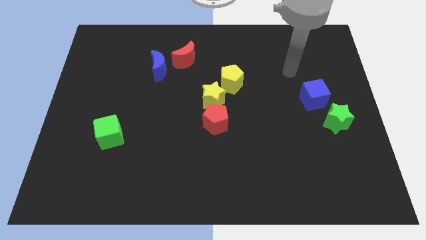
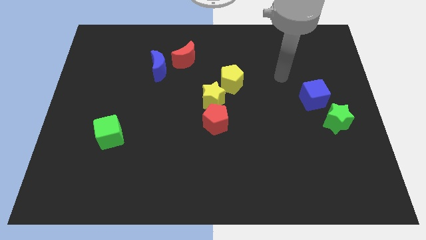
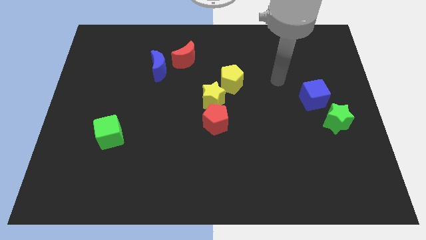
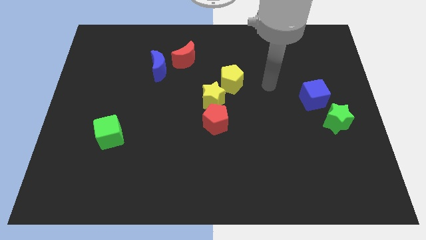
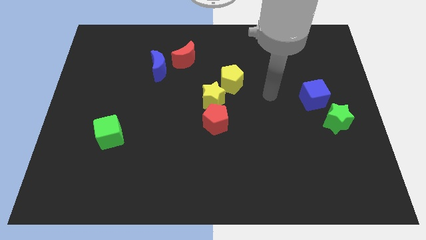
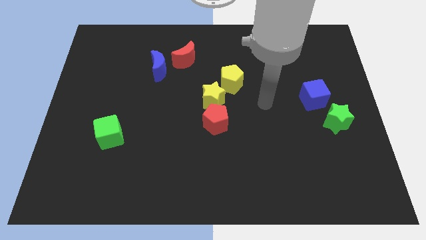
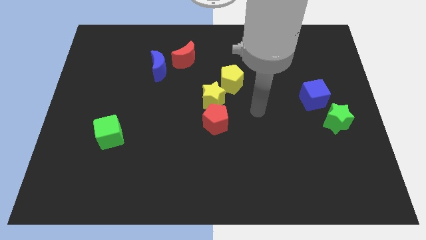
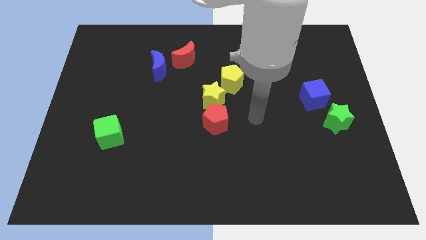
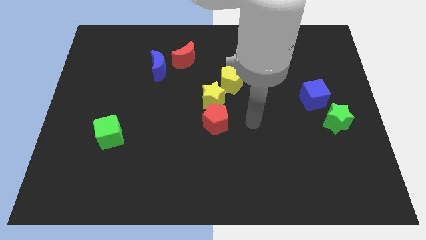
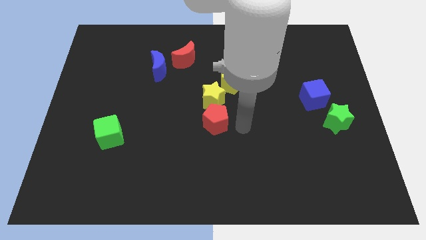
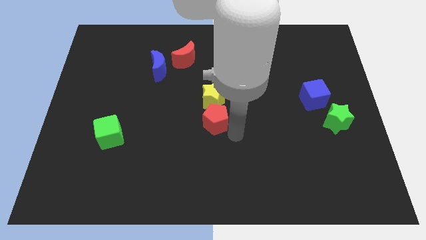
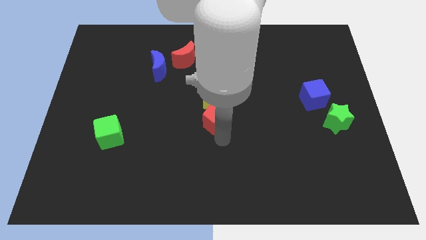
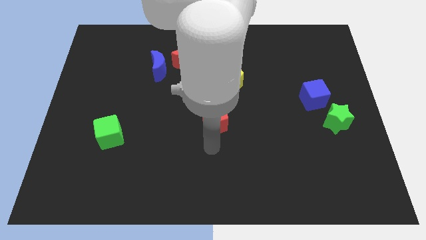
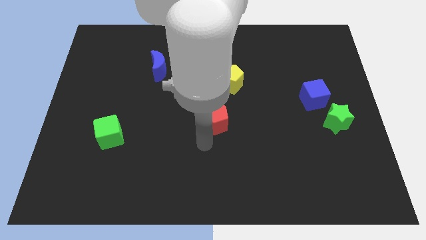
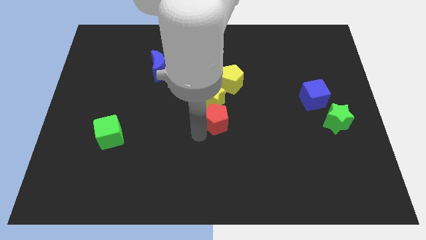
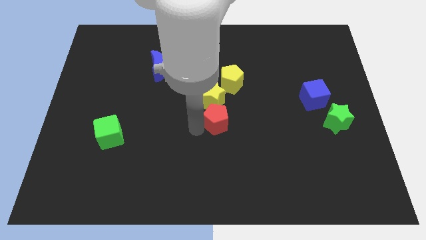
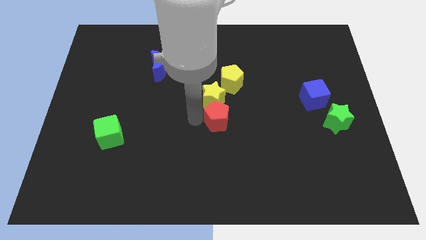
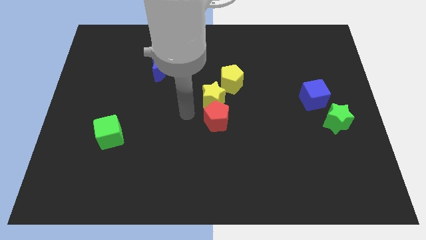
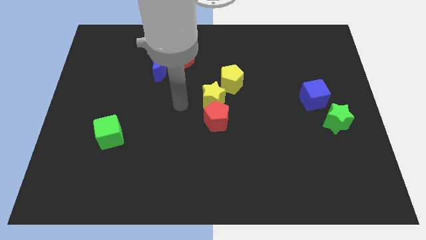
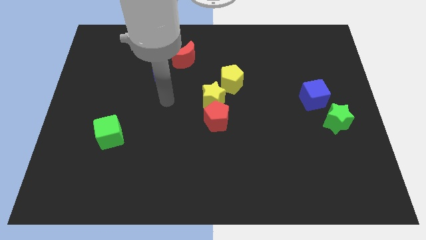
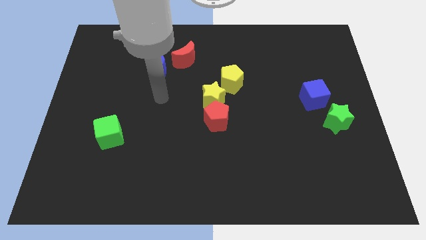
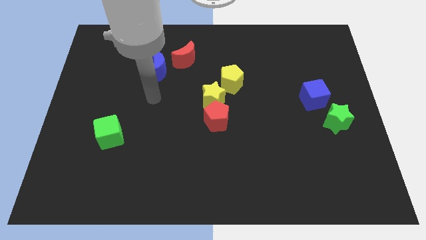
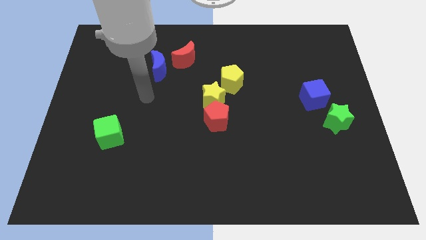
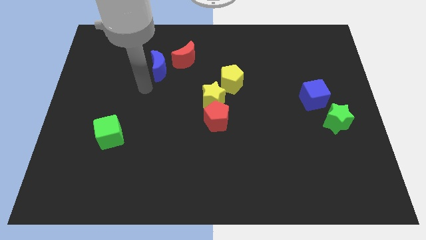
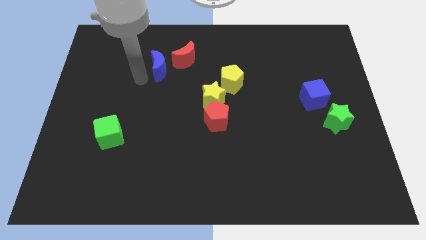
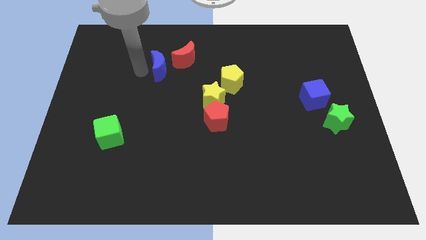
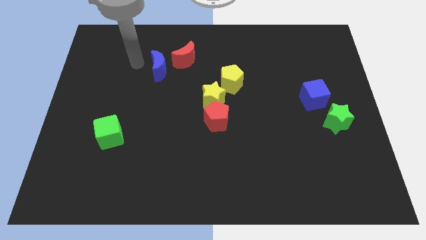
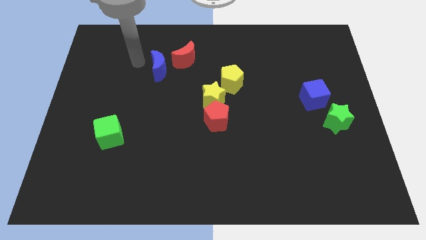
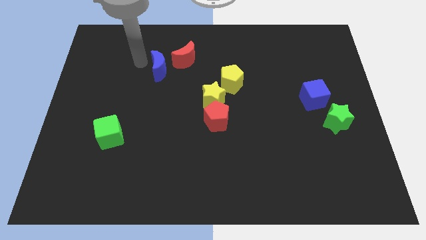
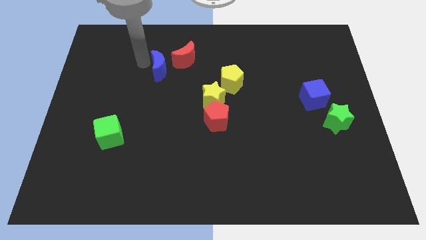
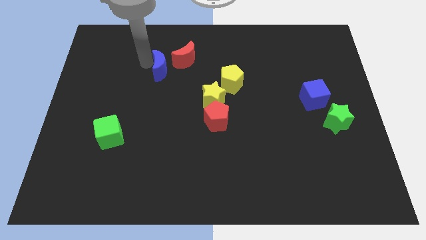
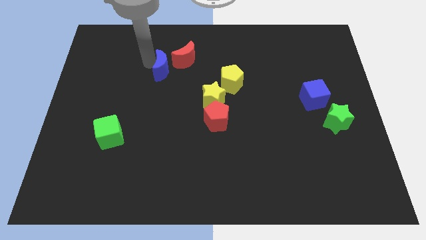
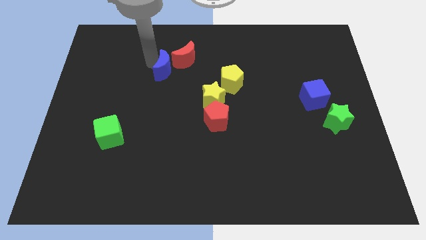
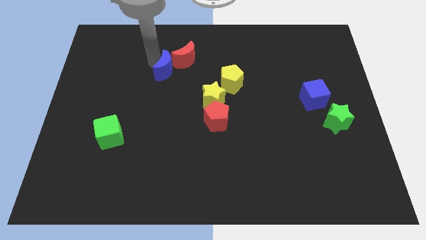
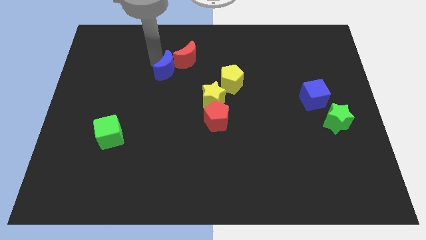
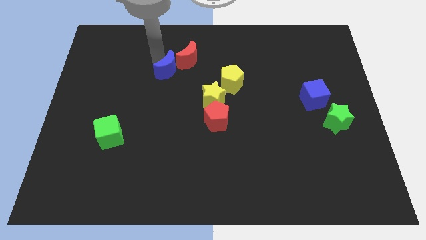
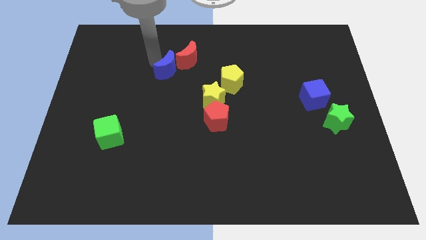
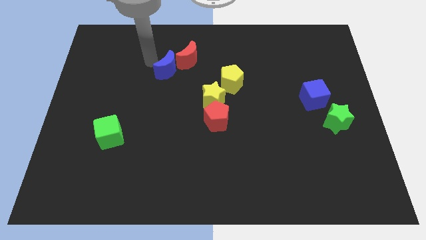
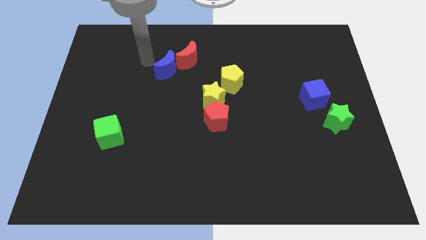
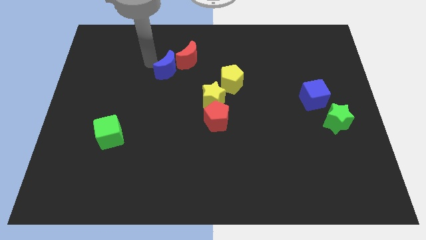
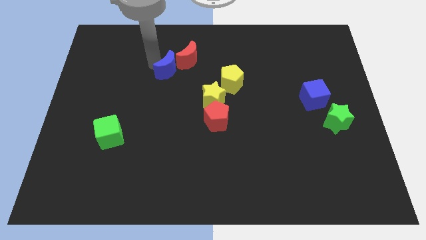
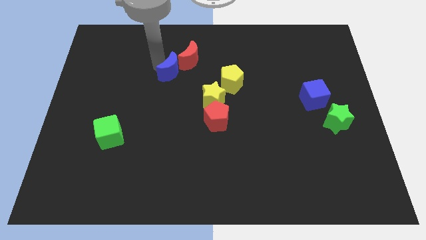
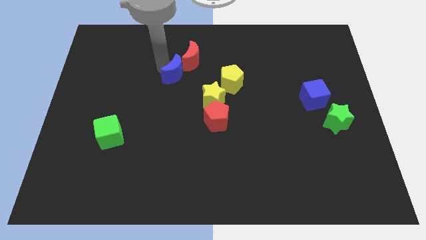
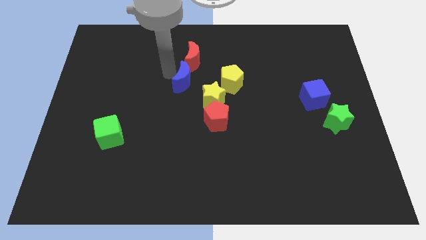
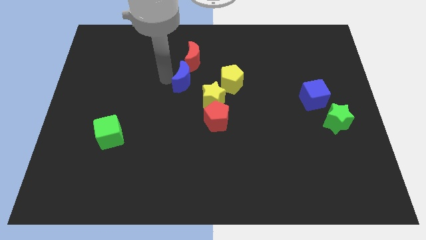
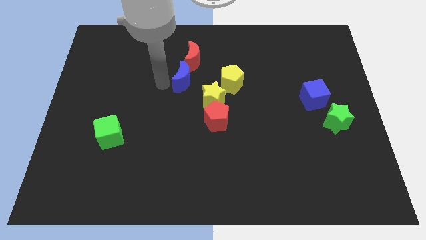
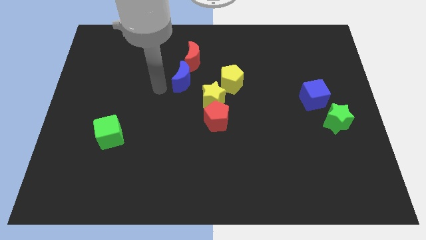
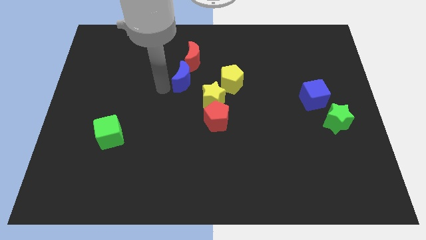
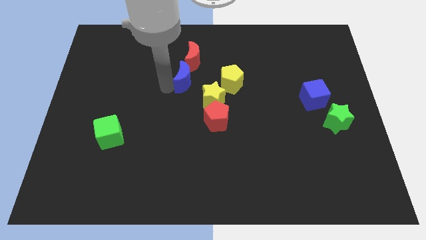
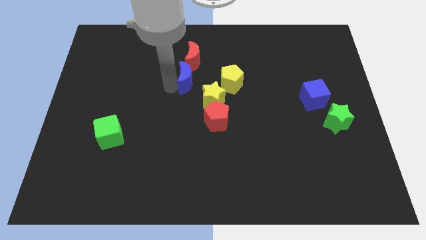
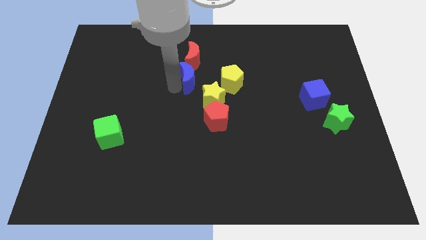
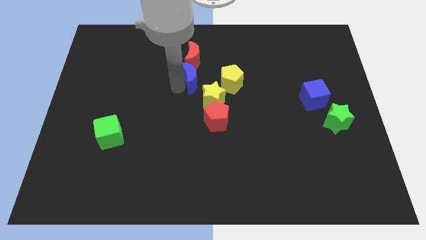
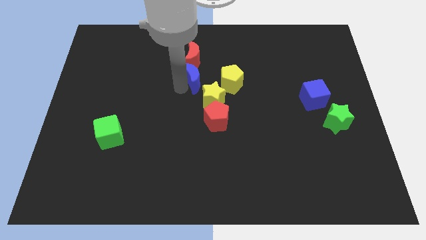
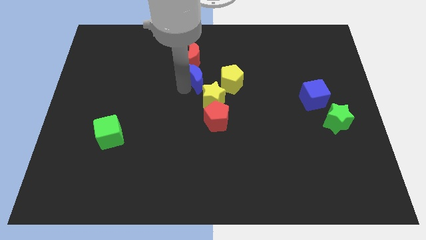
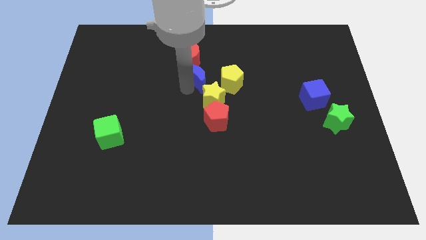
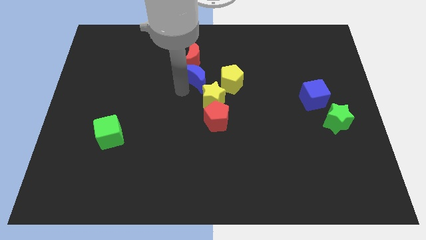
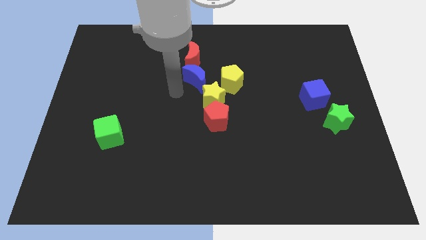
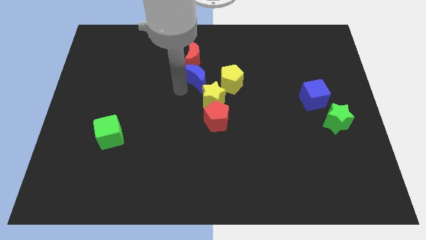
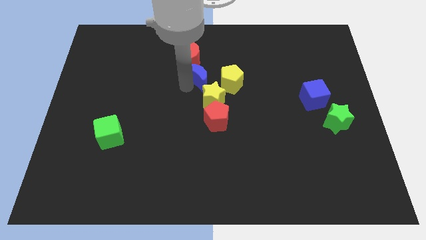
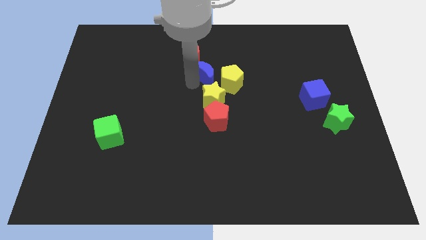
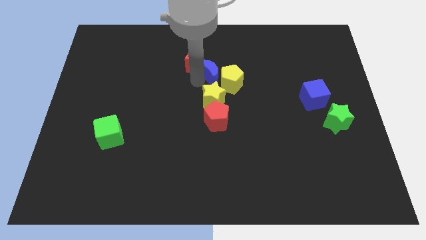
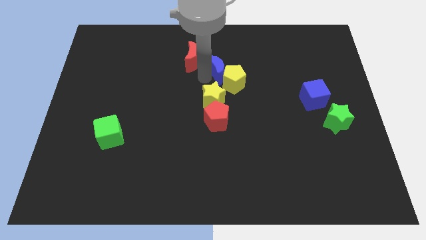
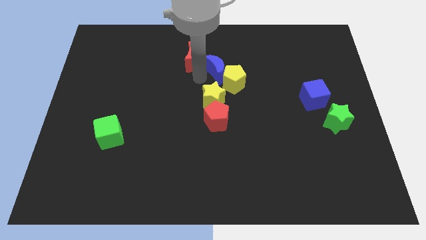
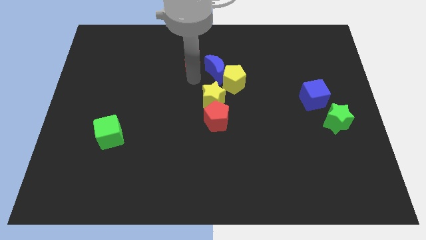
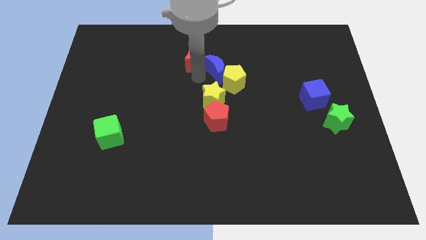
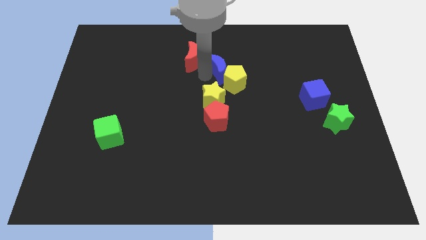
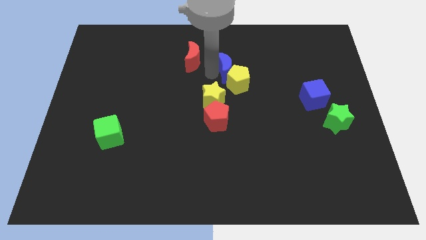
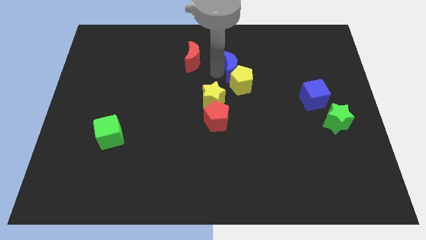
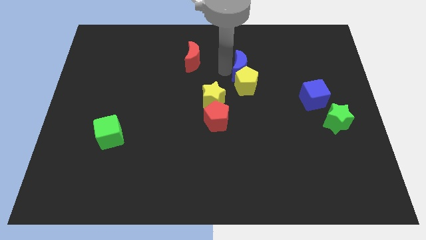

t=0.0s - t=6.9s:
slide the blue moon right

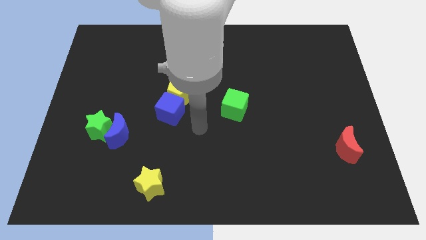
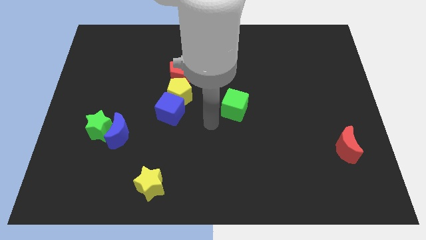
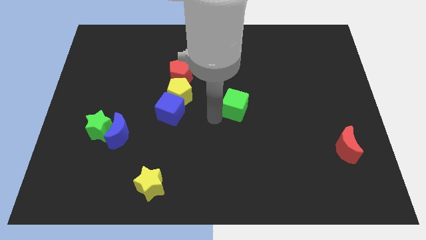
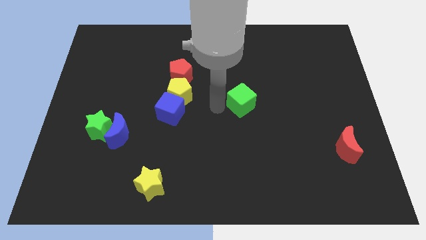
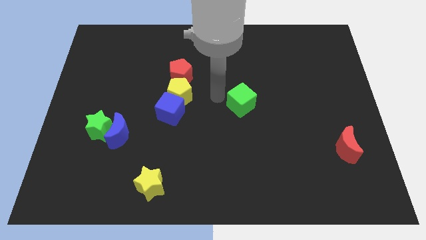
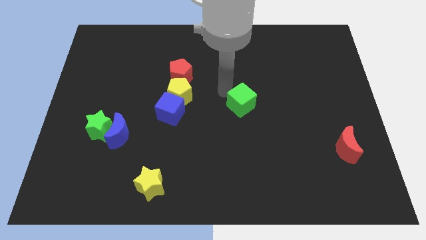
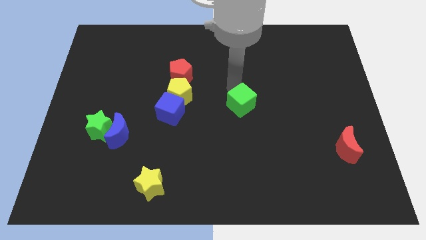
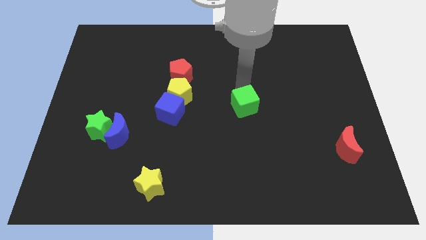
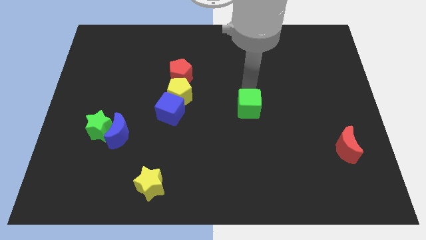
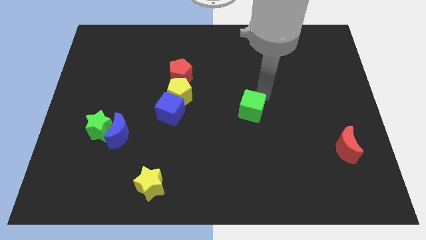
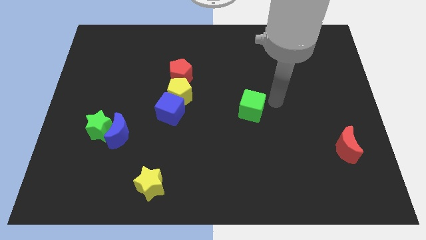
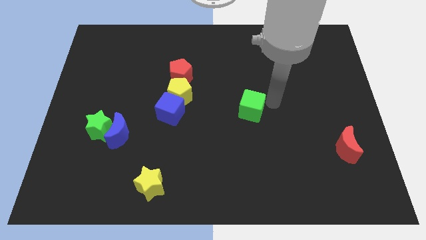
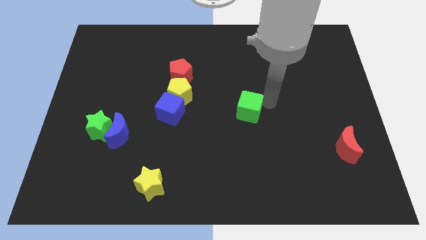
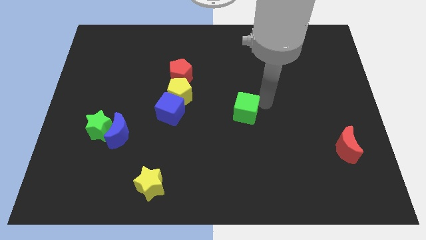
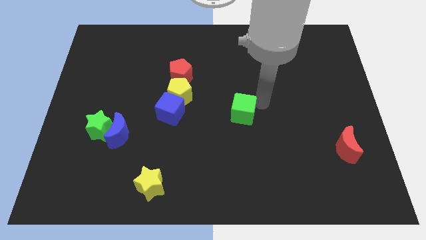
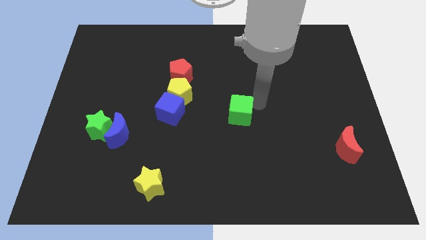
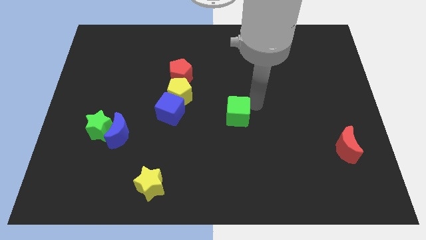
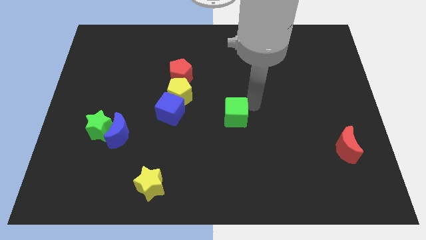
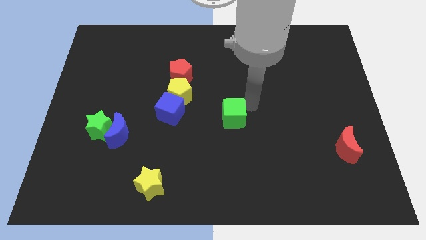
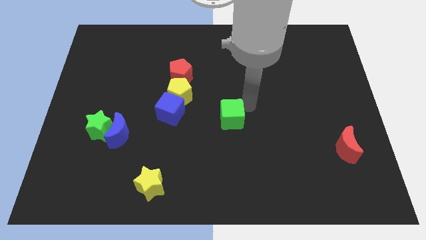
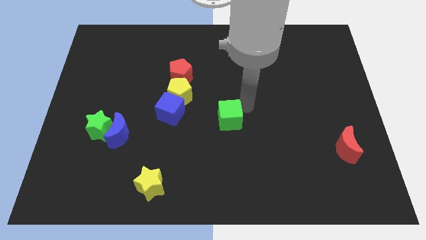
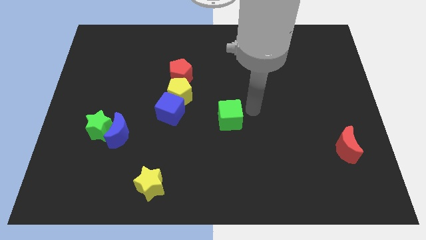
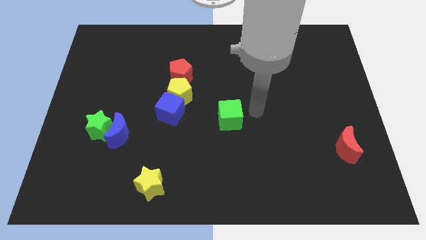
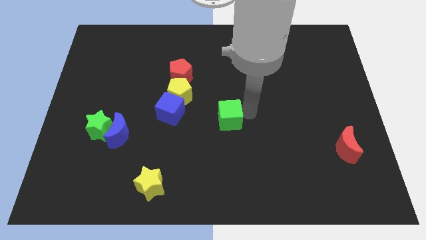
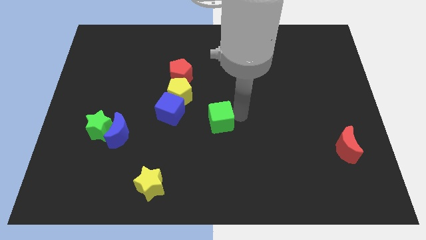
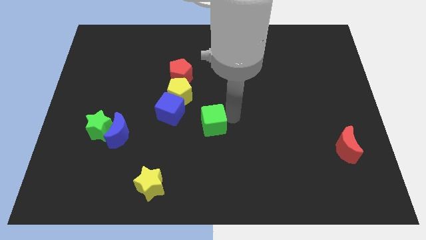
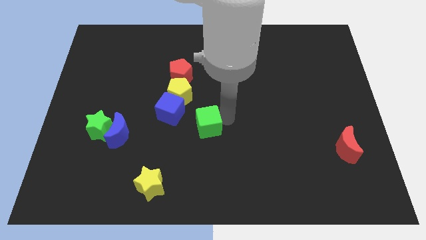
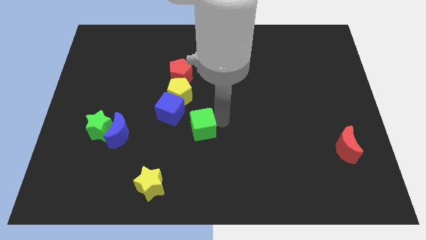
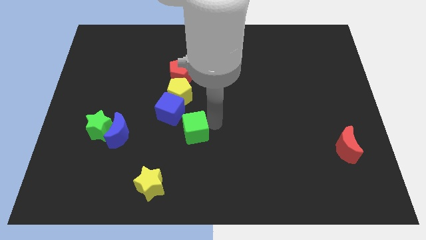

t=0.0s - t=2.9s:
push the green cube a little left
